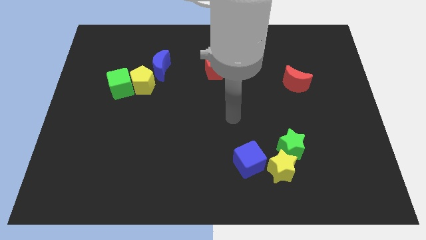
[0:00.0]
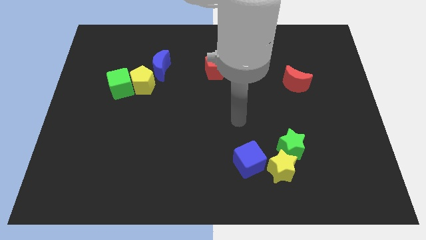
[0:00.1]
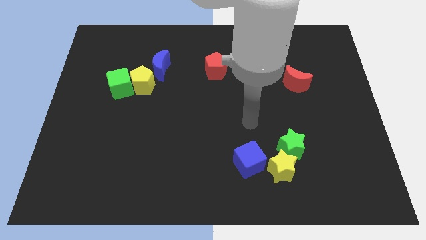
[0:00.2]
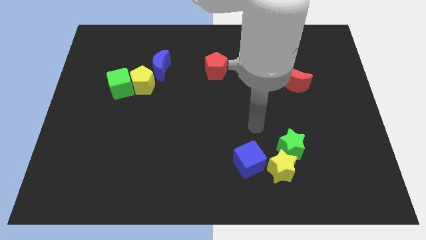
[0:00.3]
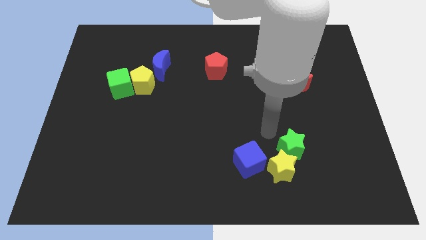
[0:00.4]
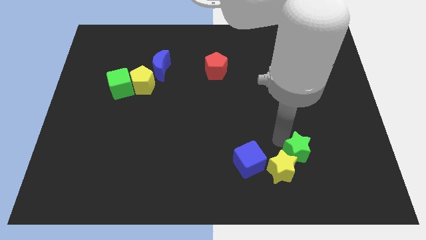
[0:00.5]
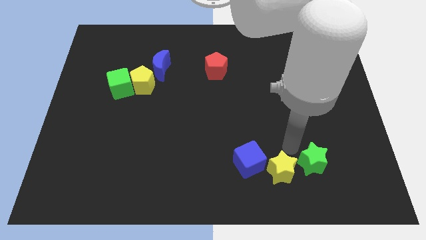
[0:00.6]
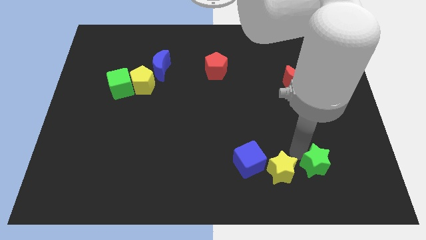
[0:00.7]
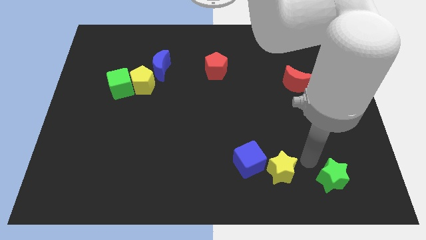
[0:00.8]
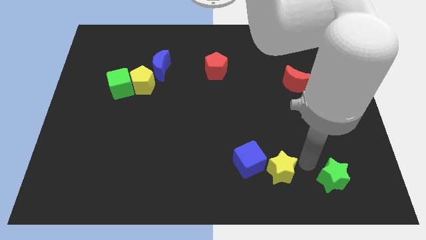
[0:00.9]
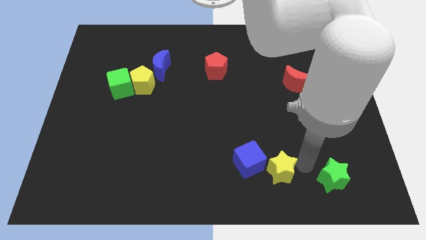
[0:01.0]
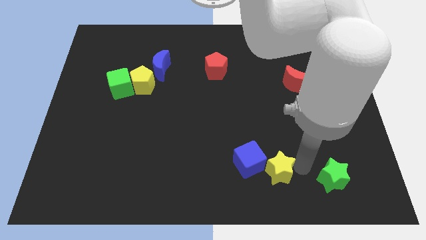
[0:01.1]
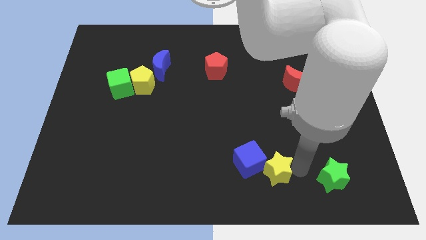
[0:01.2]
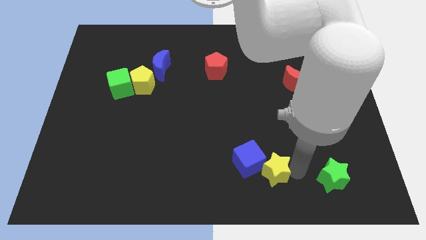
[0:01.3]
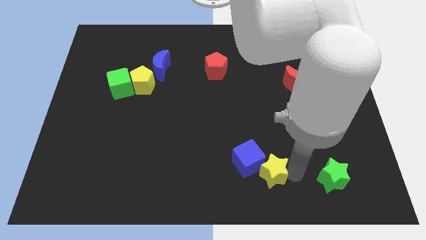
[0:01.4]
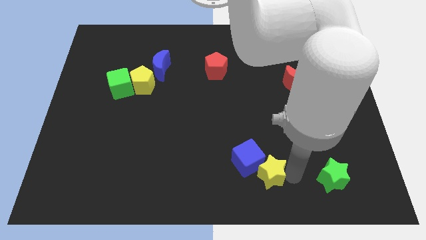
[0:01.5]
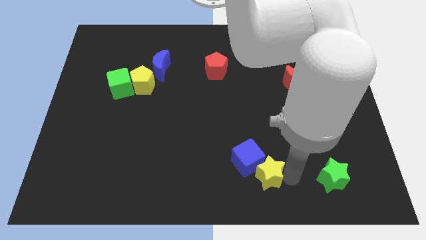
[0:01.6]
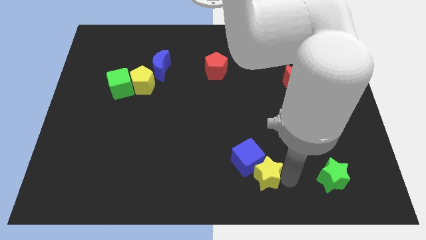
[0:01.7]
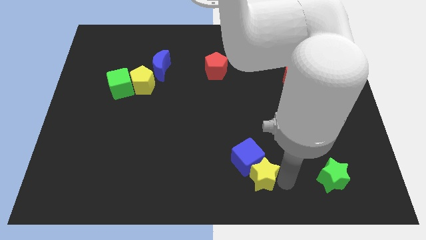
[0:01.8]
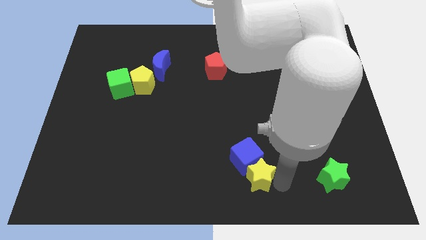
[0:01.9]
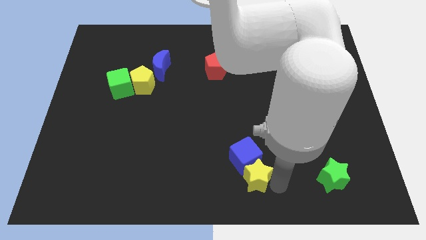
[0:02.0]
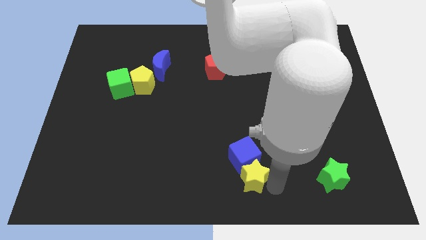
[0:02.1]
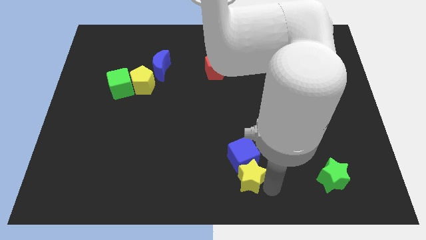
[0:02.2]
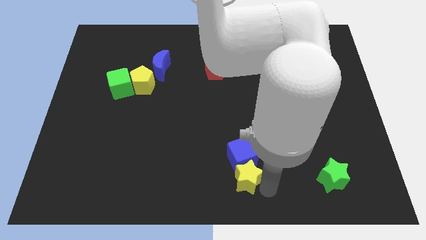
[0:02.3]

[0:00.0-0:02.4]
slightly move the yellow star left

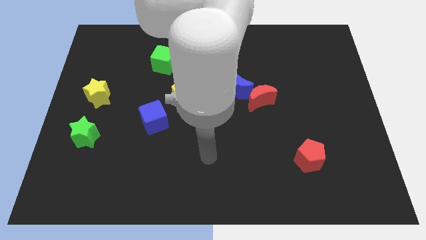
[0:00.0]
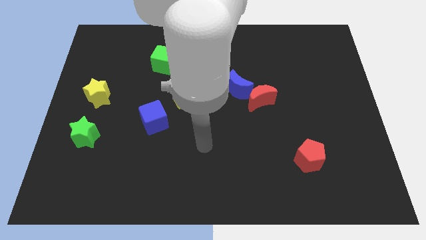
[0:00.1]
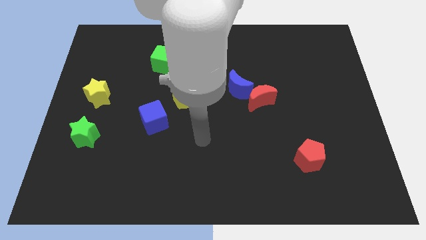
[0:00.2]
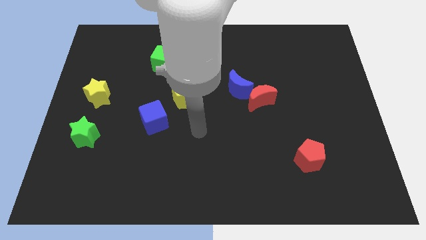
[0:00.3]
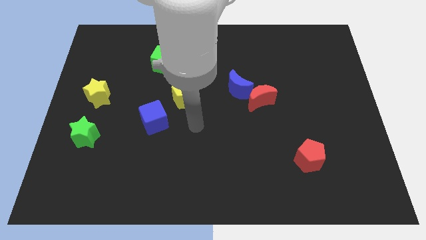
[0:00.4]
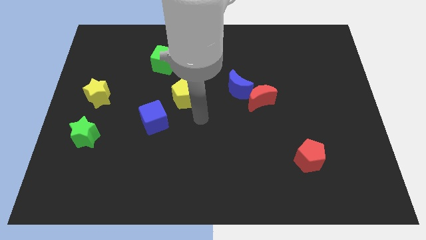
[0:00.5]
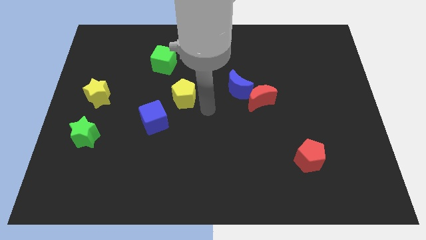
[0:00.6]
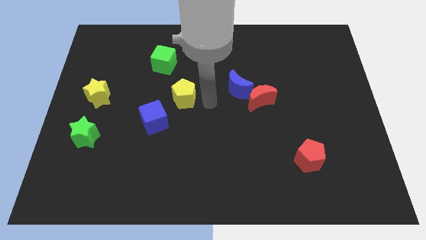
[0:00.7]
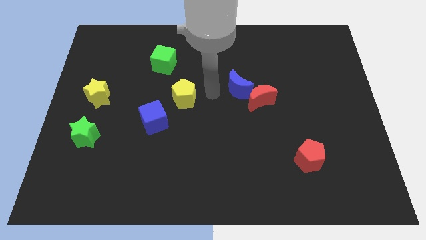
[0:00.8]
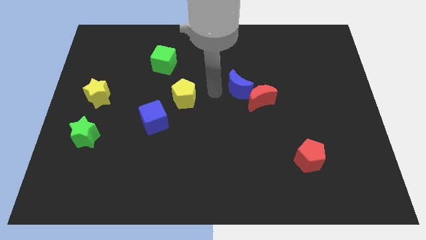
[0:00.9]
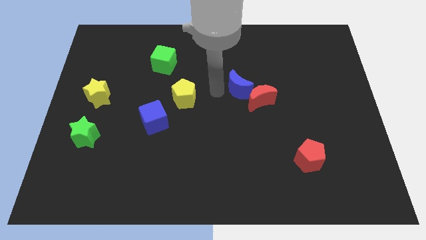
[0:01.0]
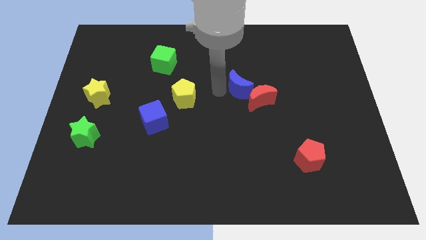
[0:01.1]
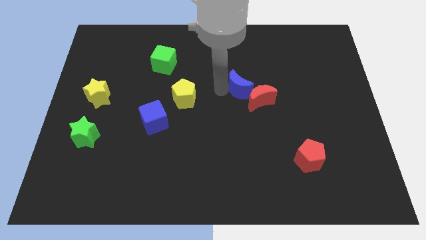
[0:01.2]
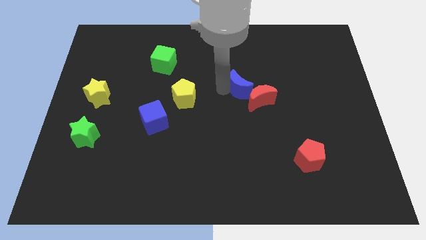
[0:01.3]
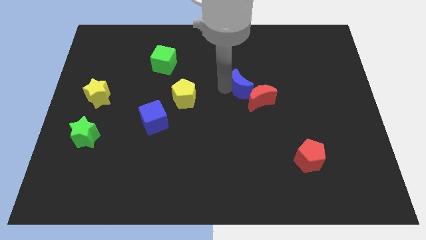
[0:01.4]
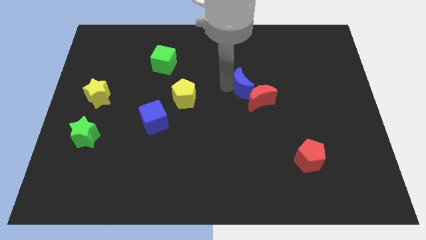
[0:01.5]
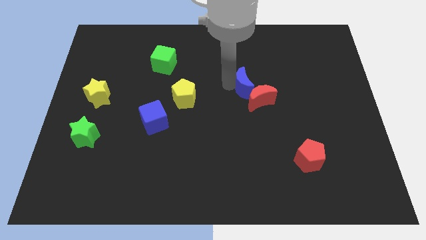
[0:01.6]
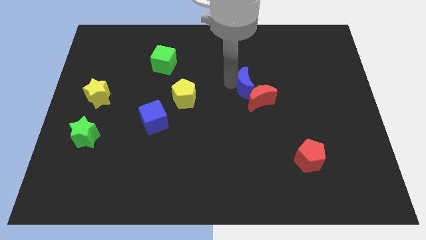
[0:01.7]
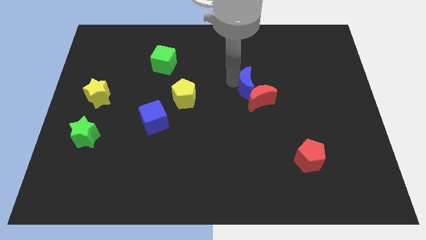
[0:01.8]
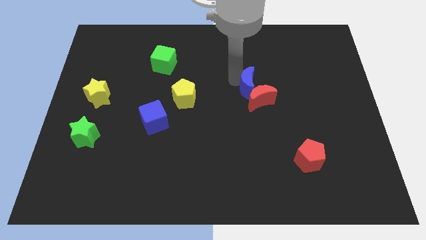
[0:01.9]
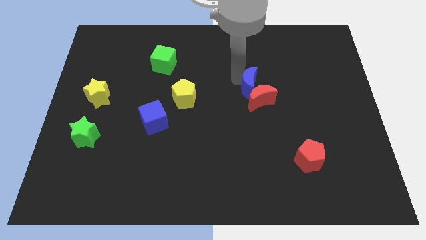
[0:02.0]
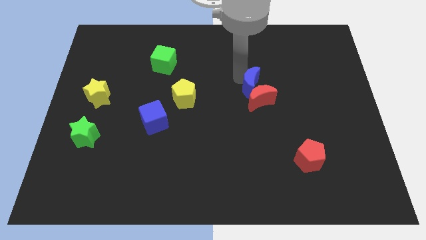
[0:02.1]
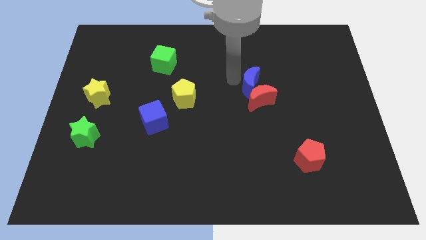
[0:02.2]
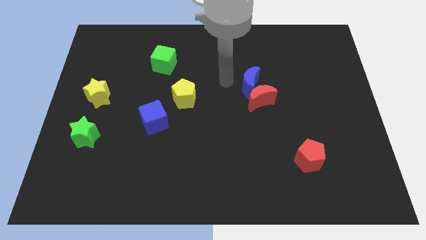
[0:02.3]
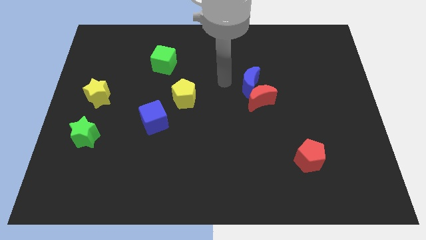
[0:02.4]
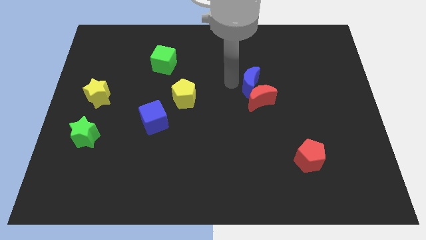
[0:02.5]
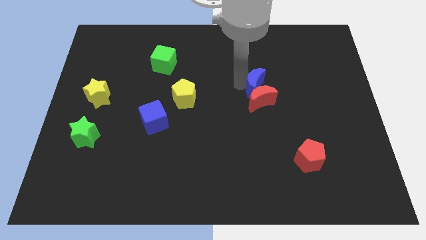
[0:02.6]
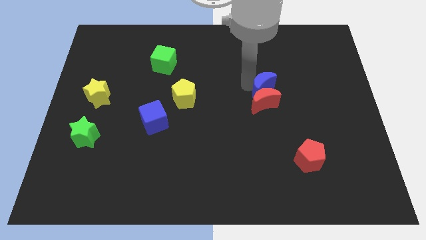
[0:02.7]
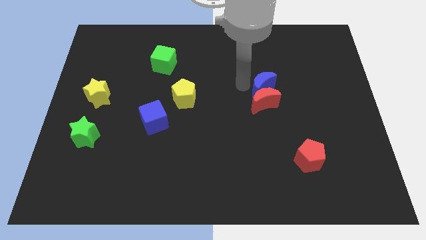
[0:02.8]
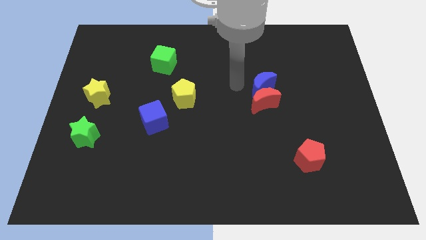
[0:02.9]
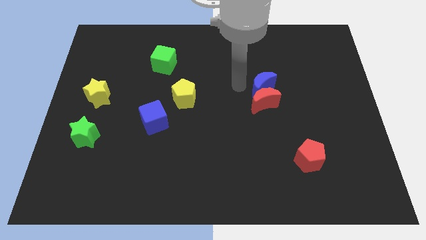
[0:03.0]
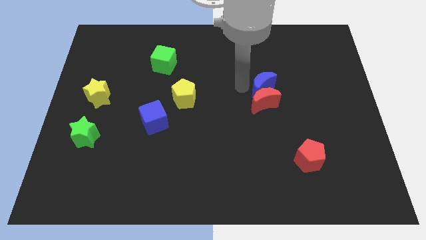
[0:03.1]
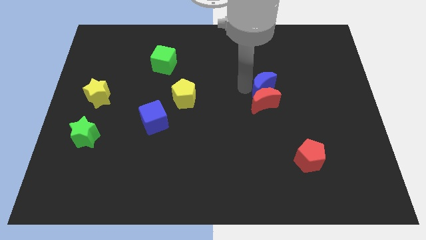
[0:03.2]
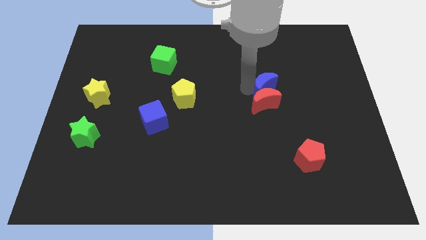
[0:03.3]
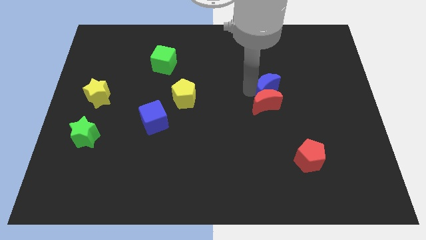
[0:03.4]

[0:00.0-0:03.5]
slightly push the blue moon to the right

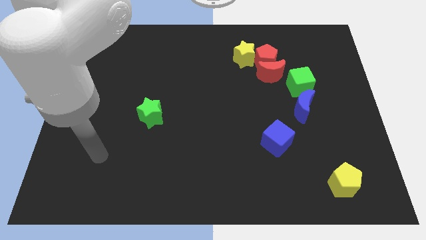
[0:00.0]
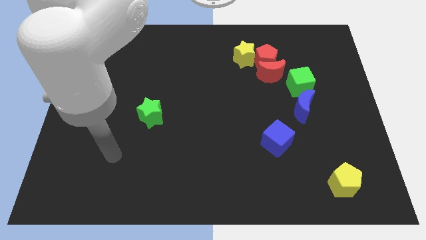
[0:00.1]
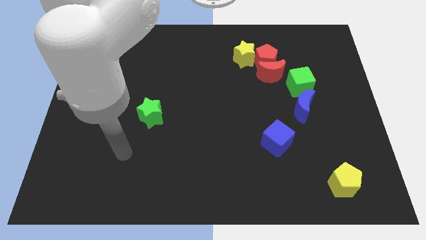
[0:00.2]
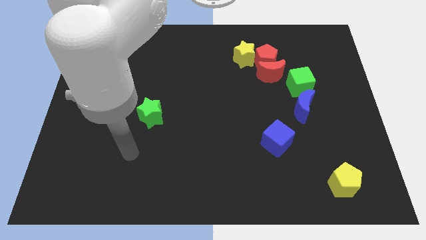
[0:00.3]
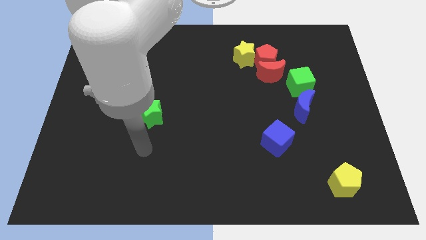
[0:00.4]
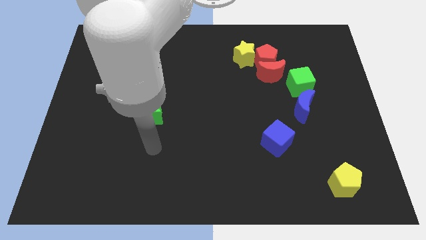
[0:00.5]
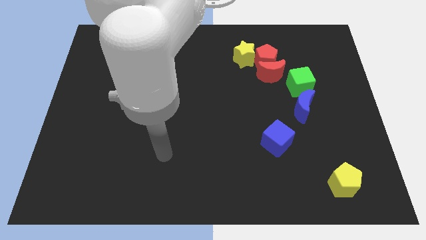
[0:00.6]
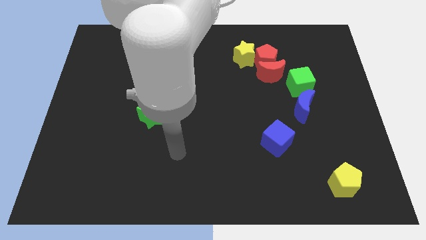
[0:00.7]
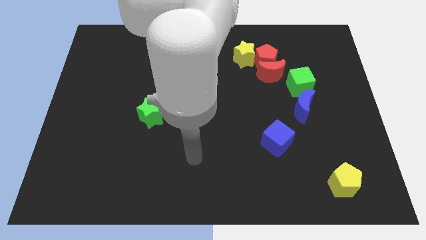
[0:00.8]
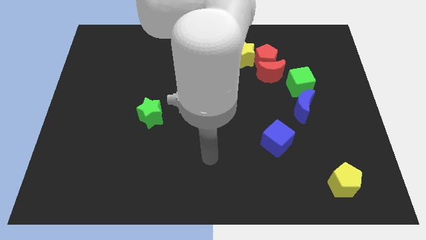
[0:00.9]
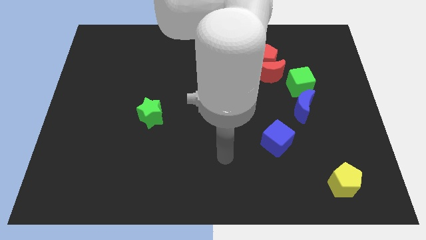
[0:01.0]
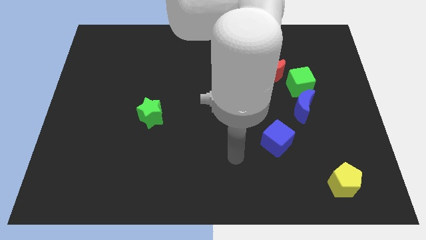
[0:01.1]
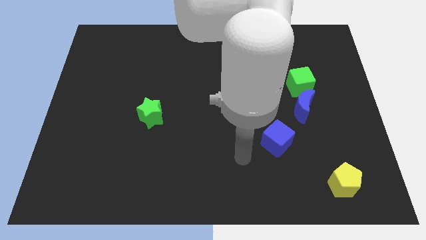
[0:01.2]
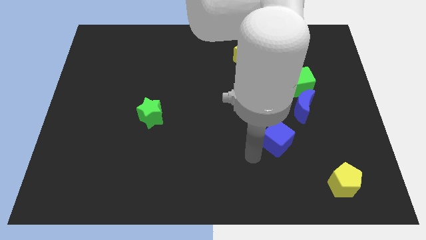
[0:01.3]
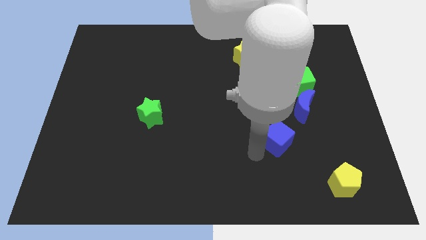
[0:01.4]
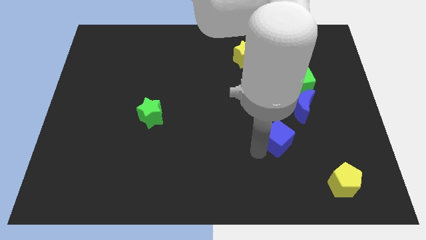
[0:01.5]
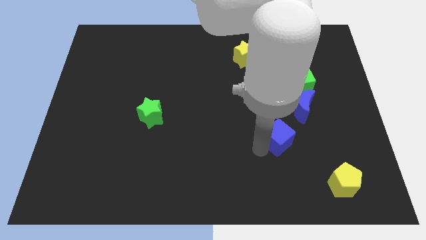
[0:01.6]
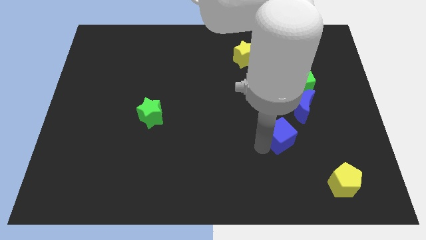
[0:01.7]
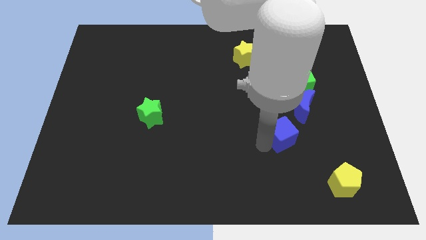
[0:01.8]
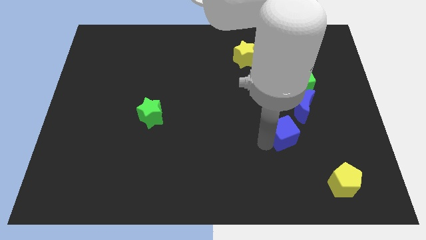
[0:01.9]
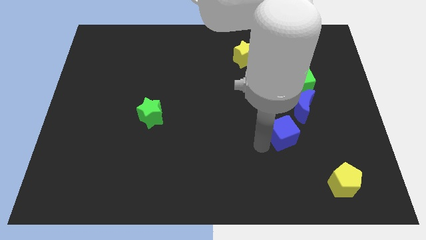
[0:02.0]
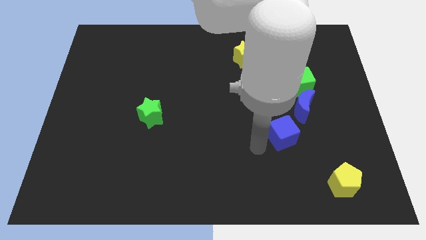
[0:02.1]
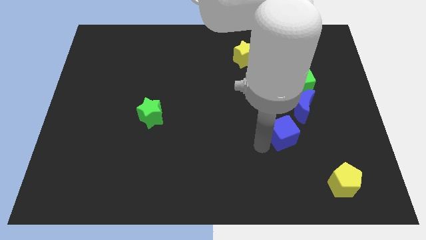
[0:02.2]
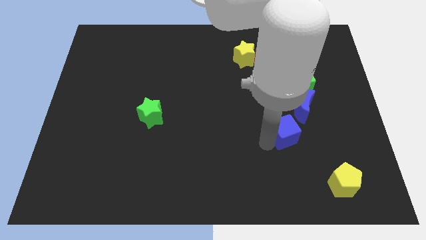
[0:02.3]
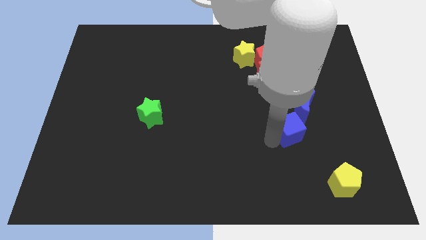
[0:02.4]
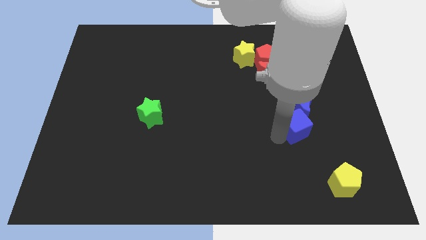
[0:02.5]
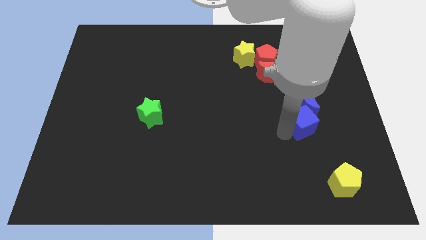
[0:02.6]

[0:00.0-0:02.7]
move the blue cube a little bit up and right diagonally
